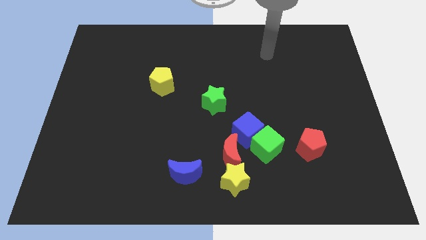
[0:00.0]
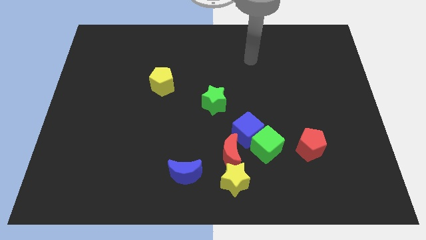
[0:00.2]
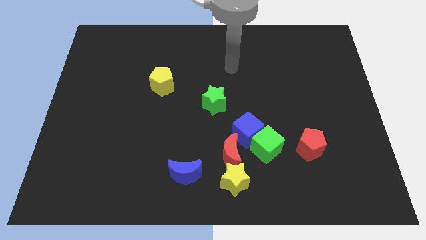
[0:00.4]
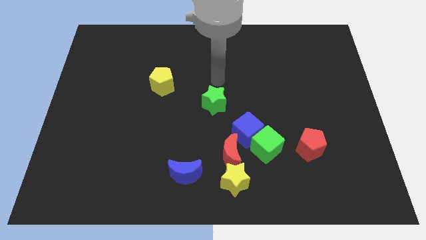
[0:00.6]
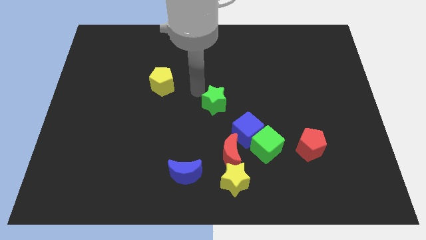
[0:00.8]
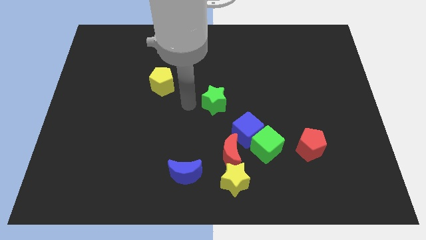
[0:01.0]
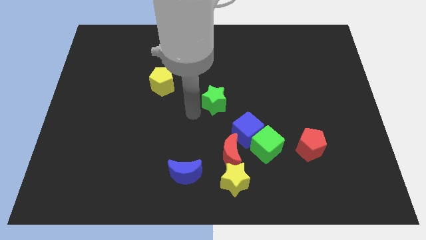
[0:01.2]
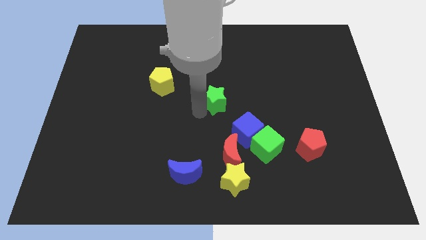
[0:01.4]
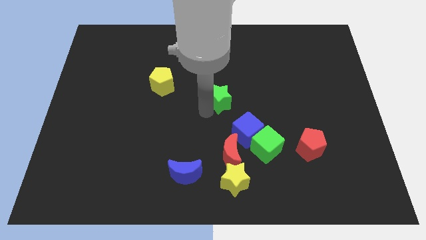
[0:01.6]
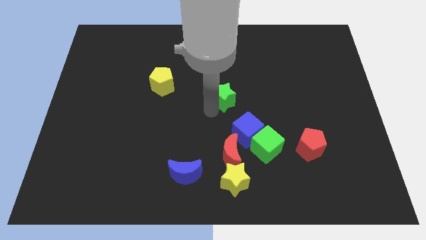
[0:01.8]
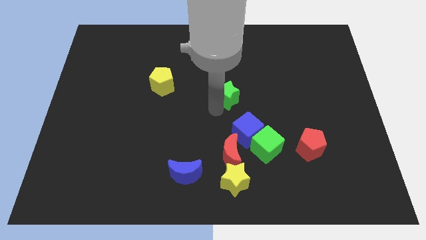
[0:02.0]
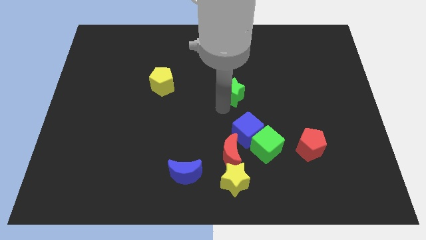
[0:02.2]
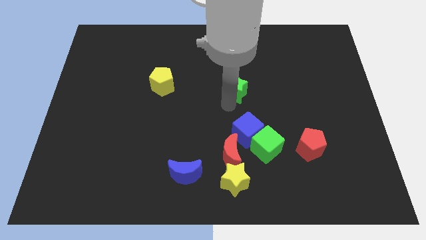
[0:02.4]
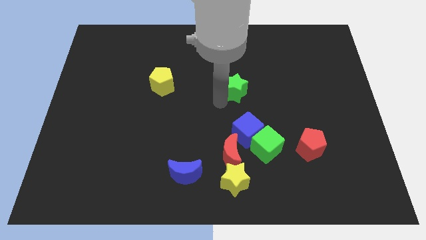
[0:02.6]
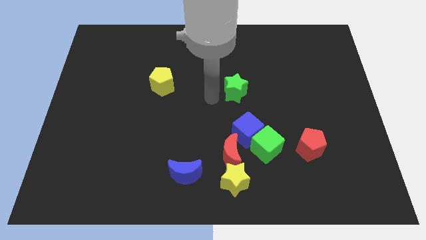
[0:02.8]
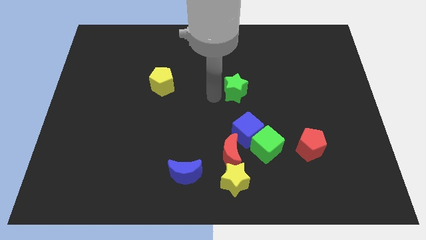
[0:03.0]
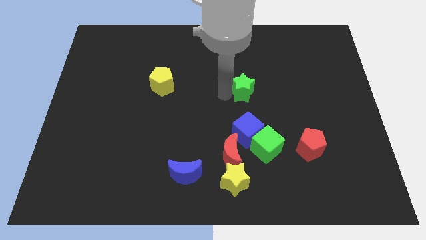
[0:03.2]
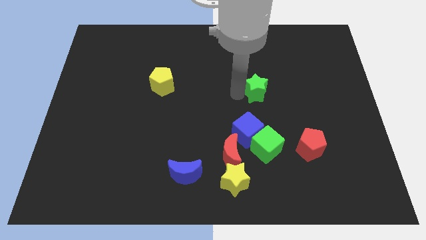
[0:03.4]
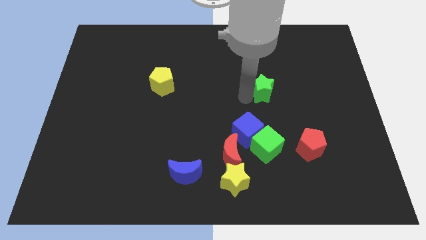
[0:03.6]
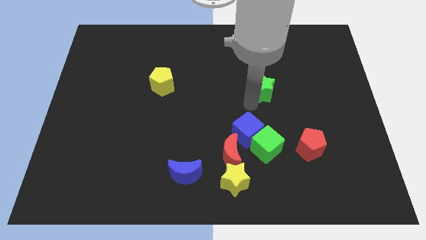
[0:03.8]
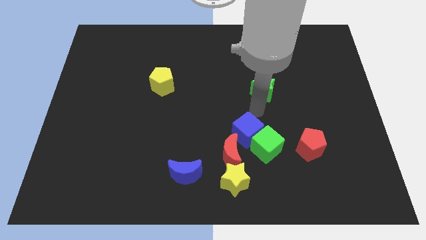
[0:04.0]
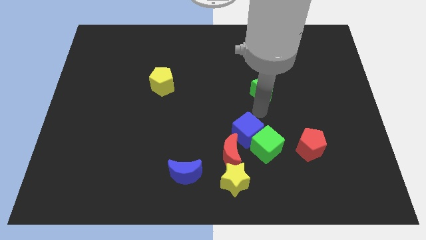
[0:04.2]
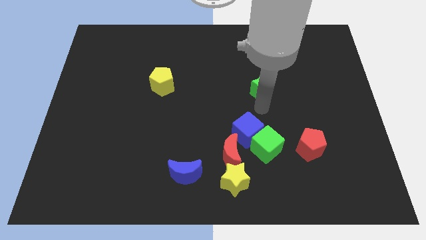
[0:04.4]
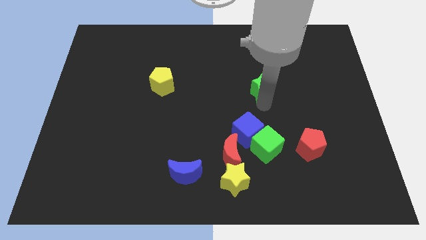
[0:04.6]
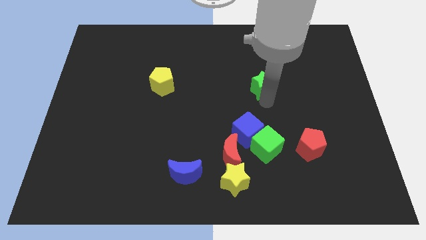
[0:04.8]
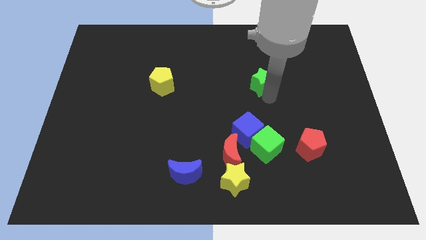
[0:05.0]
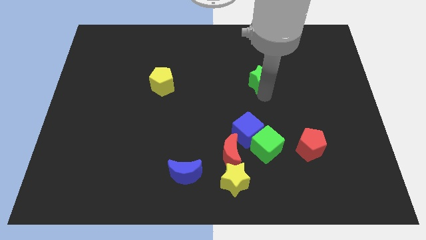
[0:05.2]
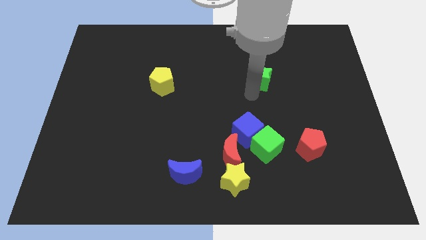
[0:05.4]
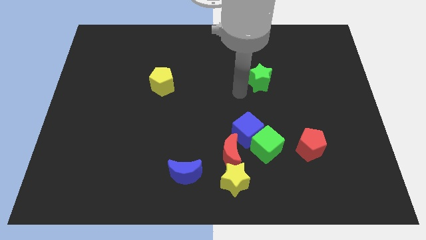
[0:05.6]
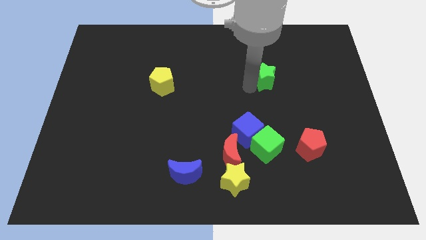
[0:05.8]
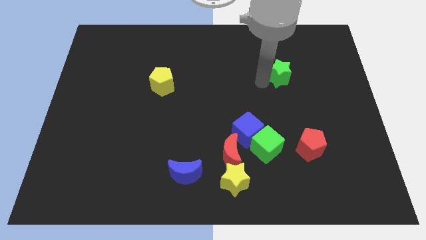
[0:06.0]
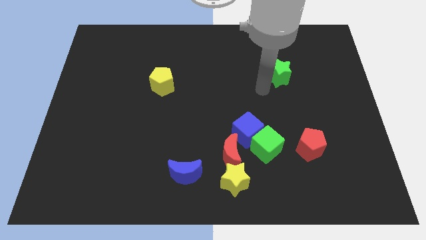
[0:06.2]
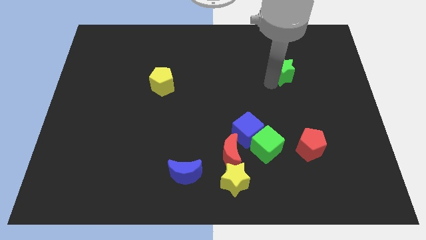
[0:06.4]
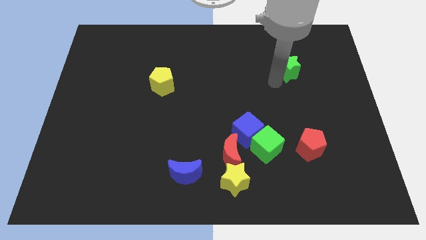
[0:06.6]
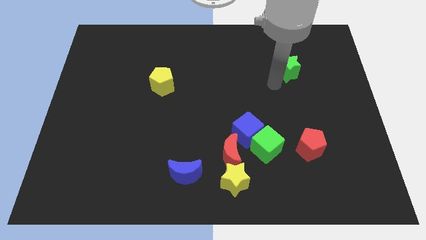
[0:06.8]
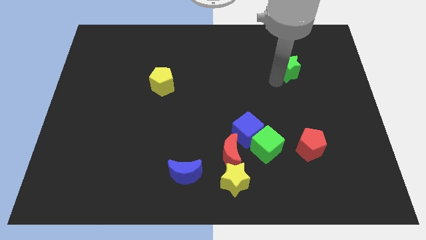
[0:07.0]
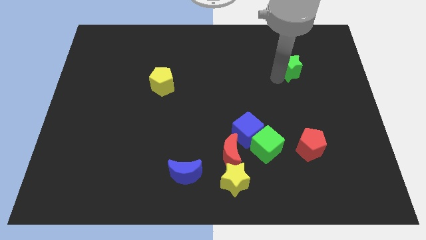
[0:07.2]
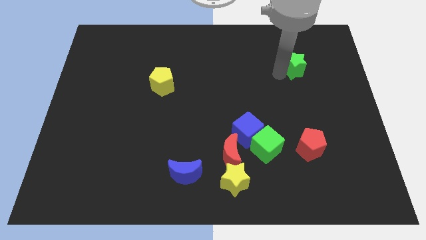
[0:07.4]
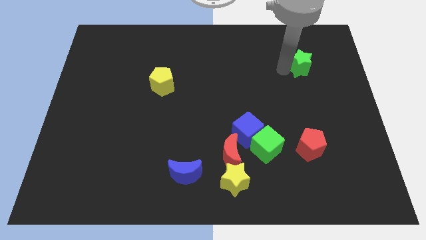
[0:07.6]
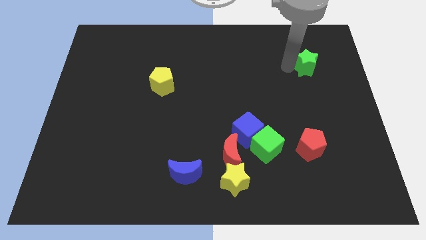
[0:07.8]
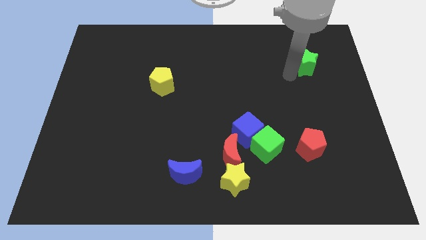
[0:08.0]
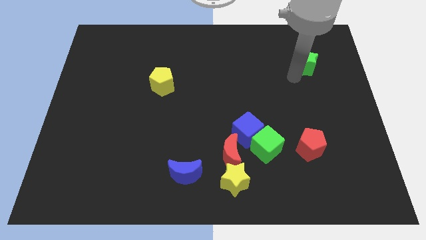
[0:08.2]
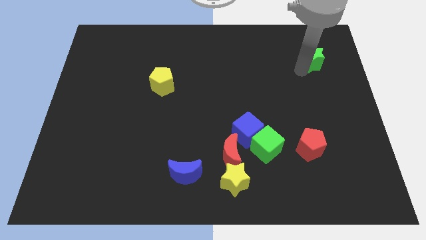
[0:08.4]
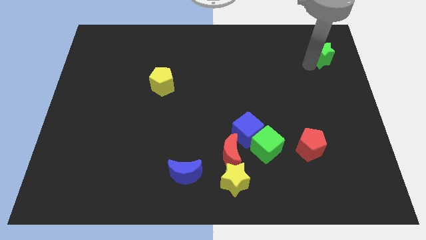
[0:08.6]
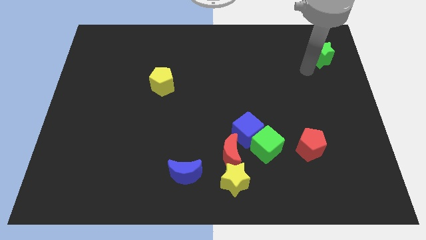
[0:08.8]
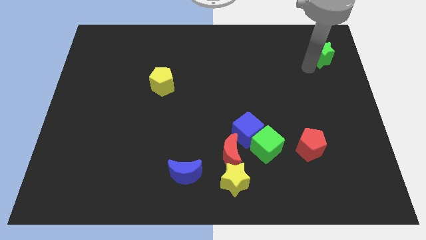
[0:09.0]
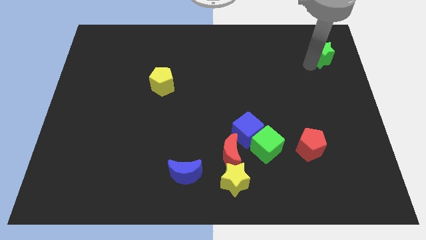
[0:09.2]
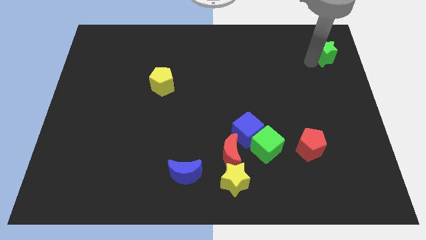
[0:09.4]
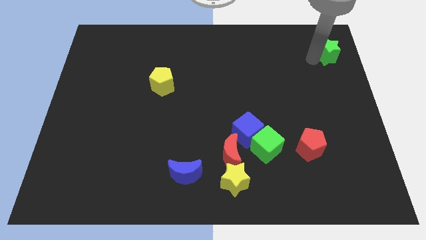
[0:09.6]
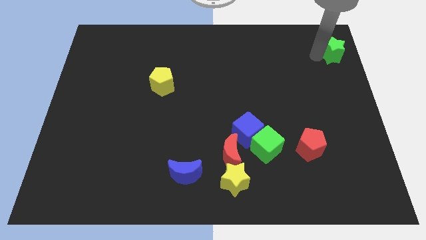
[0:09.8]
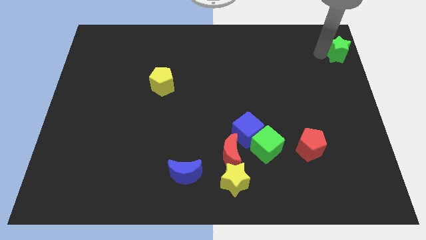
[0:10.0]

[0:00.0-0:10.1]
push the green star to the top right

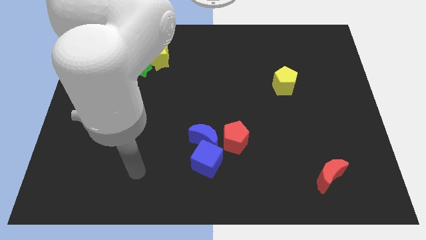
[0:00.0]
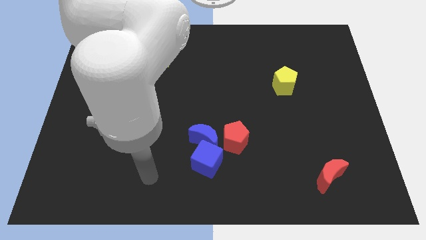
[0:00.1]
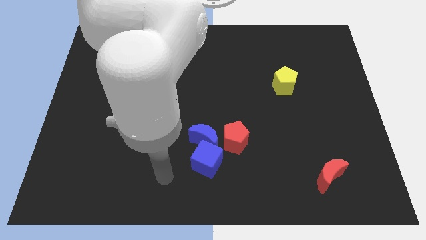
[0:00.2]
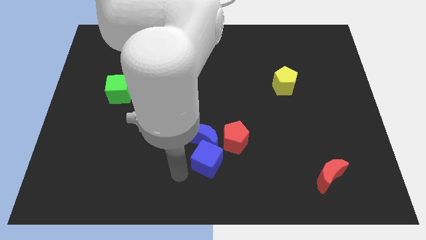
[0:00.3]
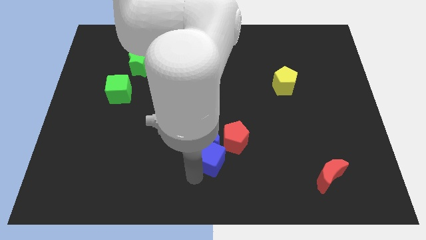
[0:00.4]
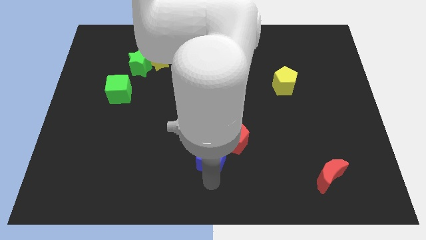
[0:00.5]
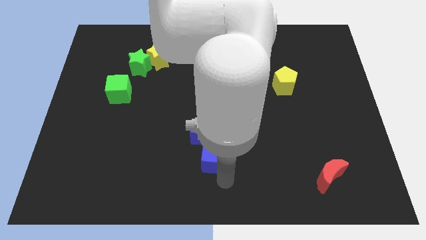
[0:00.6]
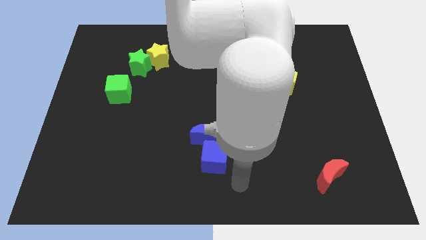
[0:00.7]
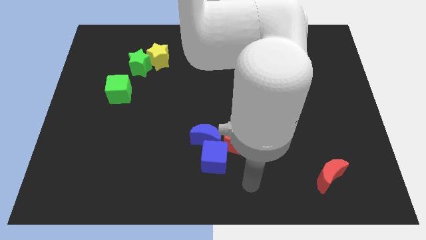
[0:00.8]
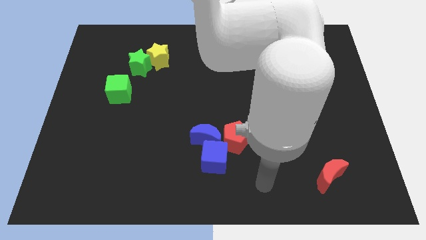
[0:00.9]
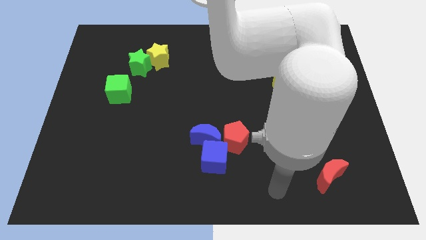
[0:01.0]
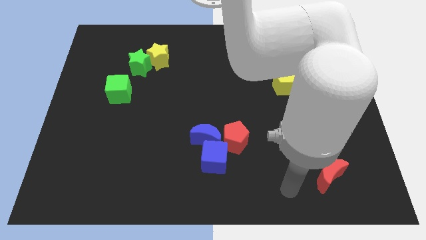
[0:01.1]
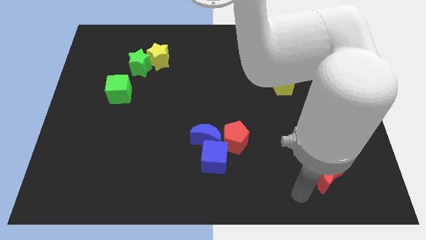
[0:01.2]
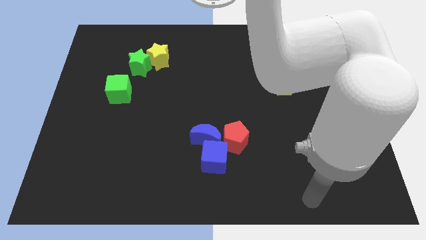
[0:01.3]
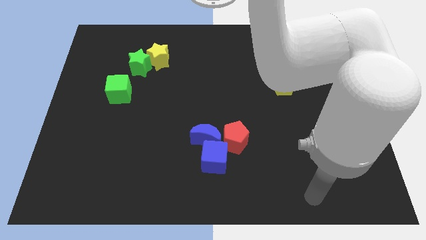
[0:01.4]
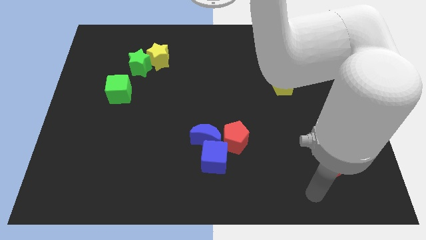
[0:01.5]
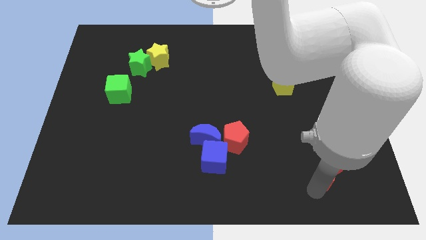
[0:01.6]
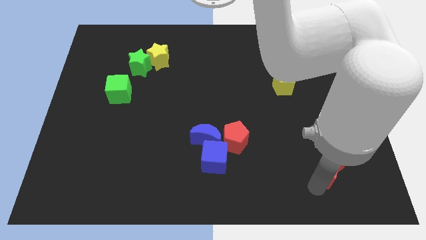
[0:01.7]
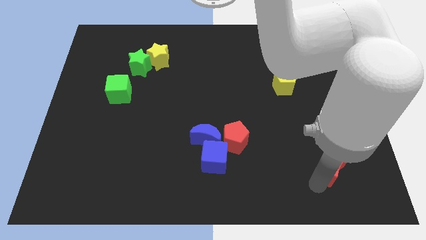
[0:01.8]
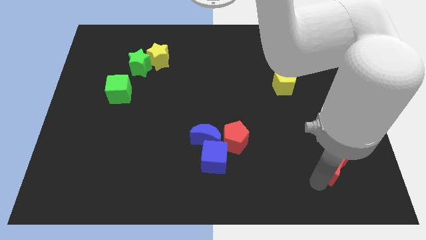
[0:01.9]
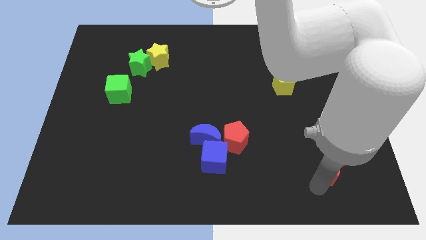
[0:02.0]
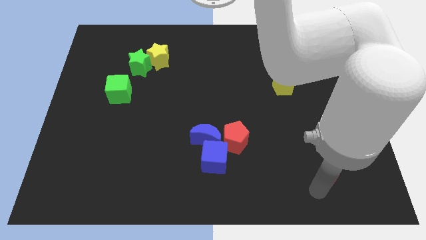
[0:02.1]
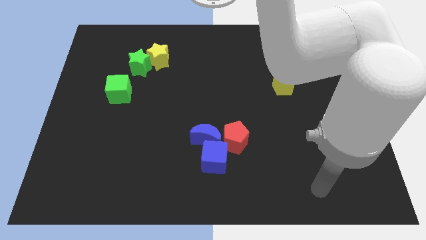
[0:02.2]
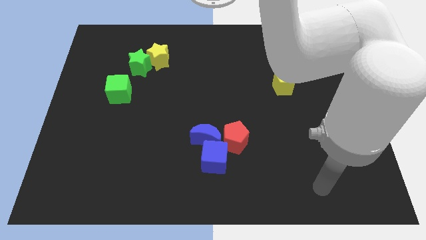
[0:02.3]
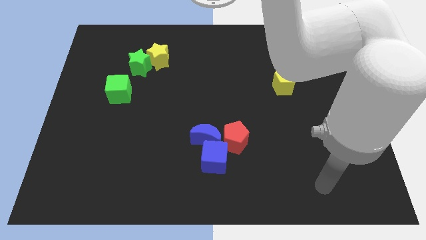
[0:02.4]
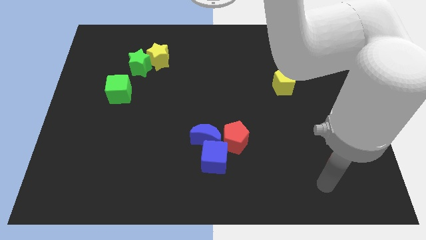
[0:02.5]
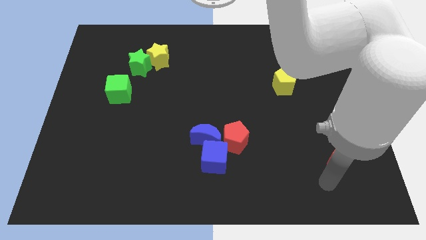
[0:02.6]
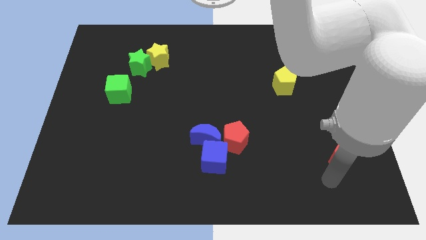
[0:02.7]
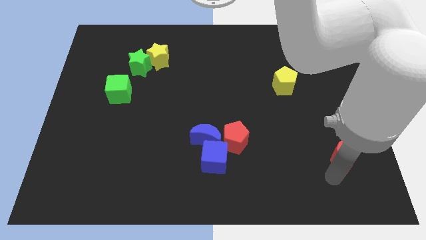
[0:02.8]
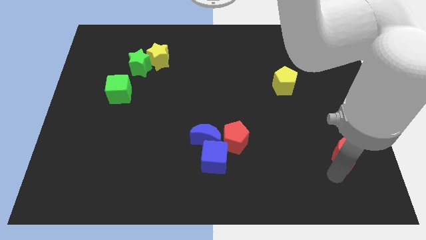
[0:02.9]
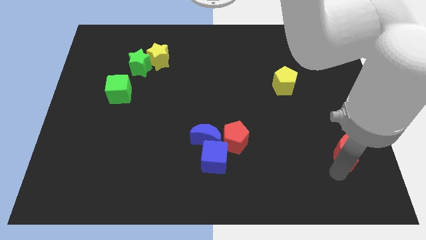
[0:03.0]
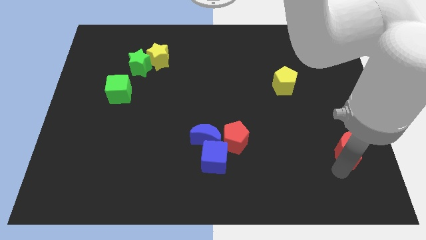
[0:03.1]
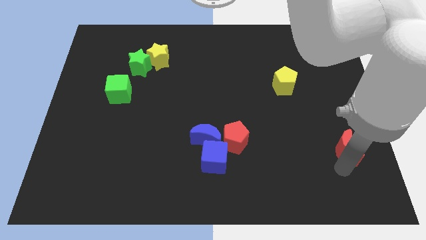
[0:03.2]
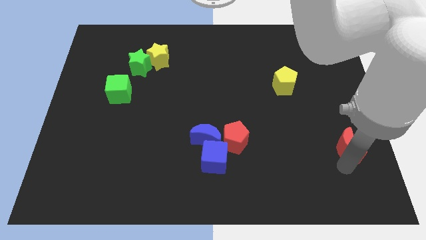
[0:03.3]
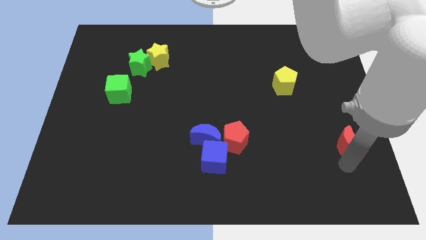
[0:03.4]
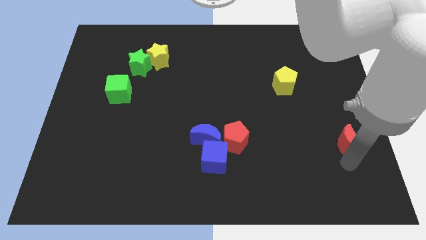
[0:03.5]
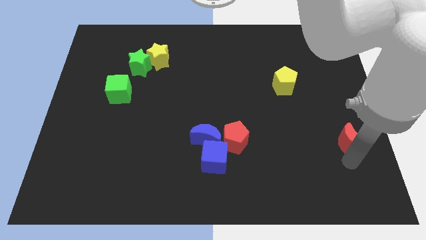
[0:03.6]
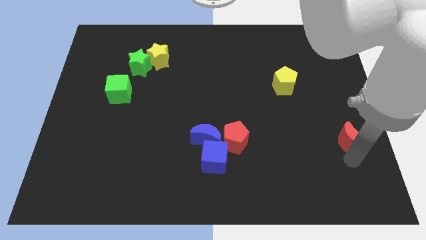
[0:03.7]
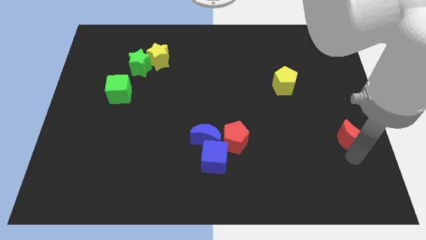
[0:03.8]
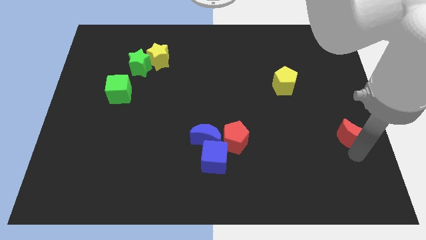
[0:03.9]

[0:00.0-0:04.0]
slide the red moon to the right side
